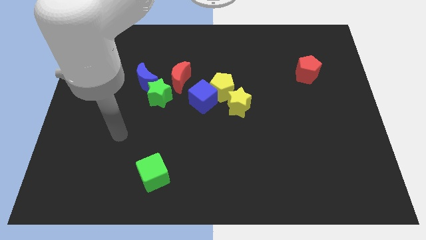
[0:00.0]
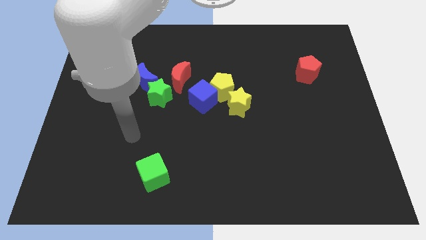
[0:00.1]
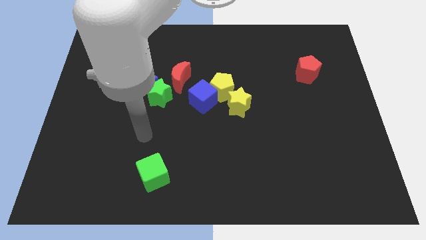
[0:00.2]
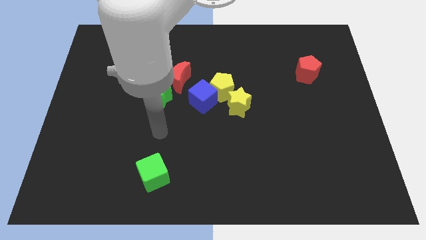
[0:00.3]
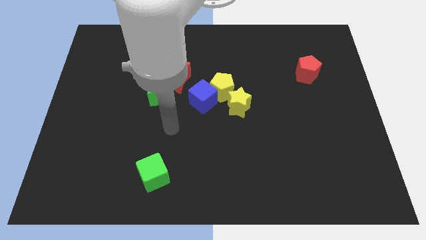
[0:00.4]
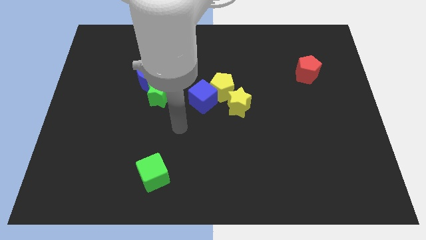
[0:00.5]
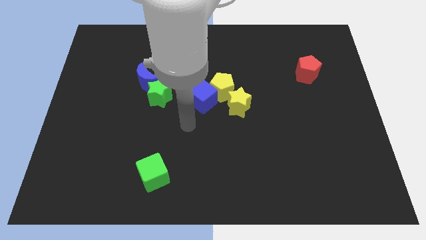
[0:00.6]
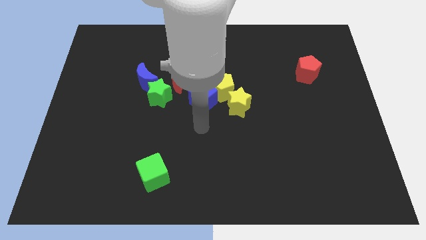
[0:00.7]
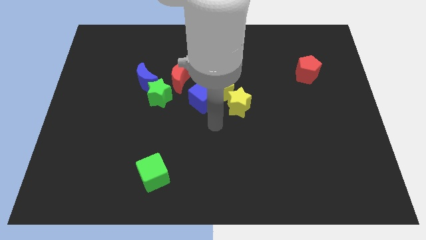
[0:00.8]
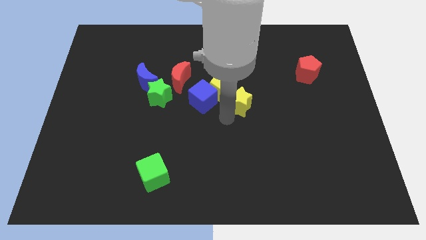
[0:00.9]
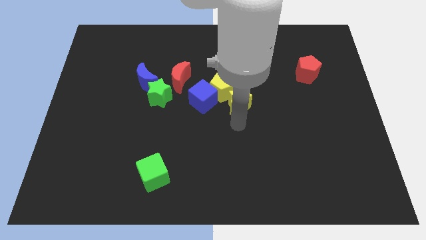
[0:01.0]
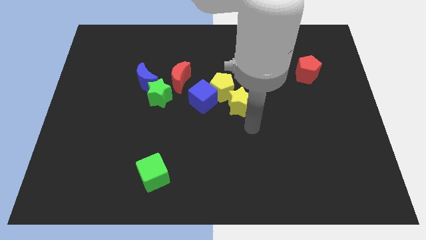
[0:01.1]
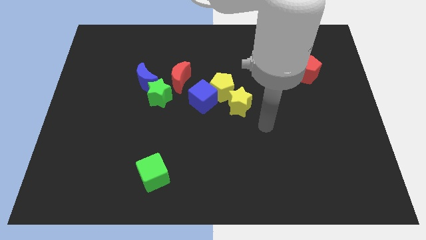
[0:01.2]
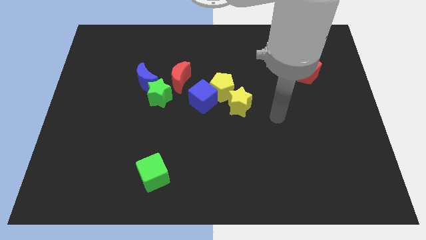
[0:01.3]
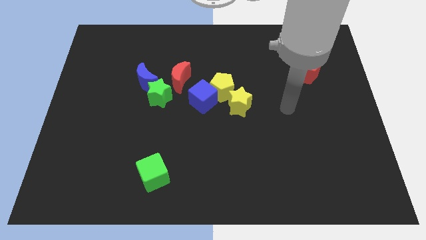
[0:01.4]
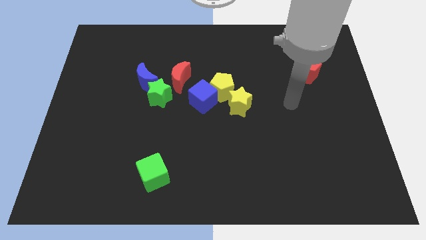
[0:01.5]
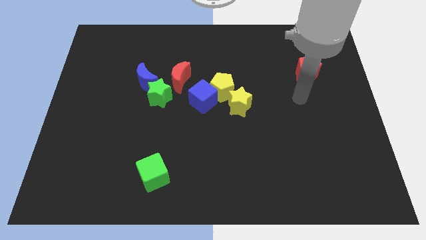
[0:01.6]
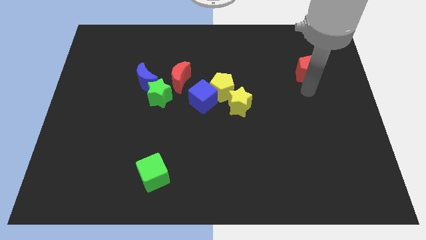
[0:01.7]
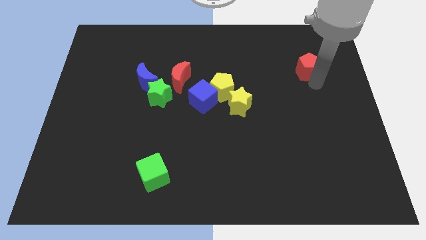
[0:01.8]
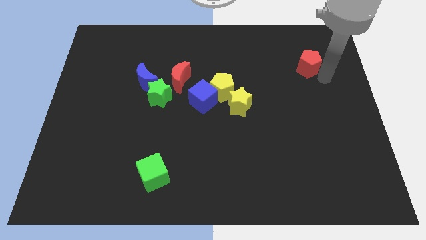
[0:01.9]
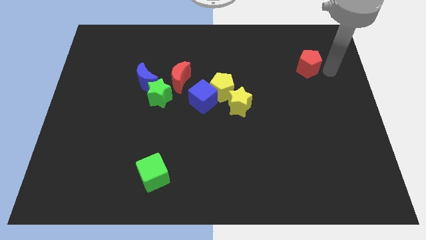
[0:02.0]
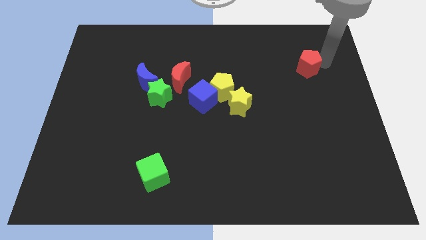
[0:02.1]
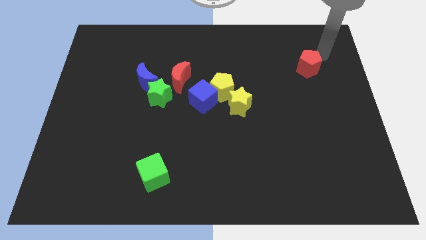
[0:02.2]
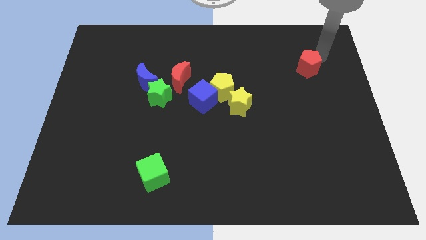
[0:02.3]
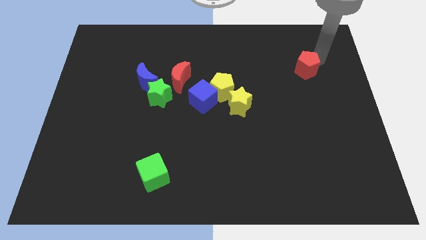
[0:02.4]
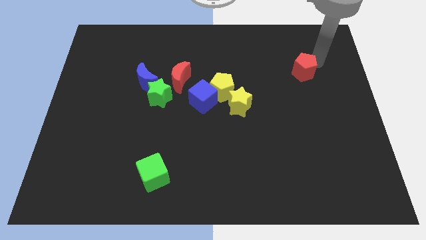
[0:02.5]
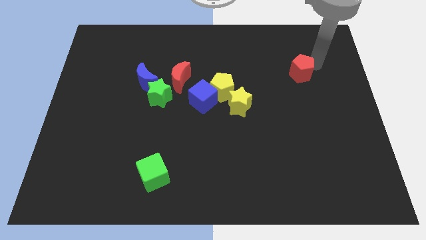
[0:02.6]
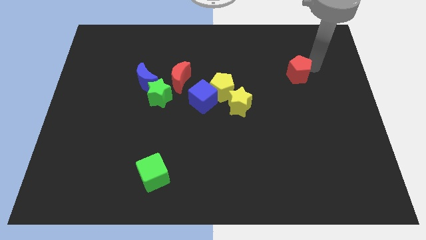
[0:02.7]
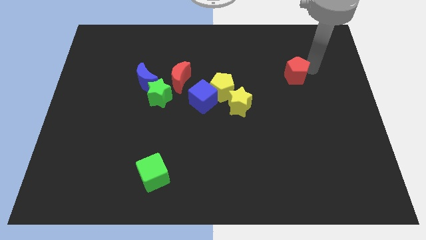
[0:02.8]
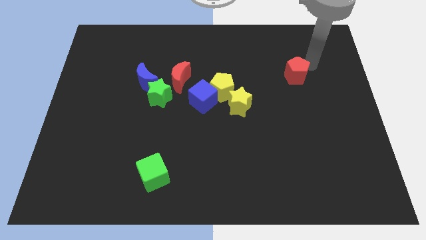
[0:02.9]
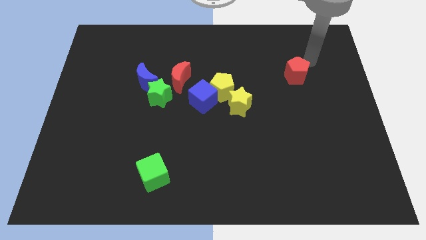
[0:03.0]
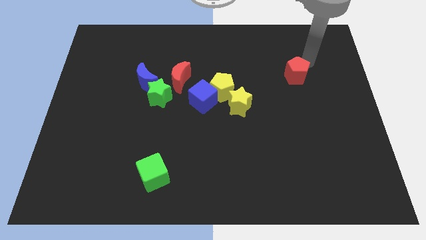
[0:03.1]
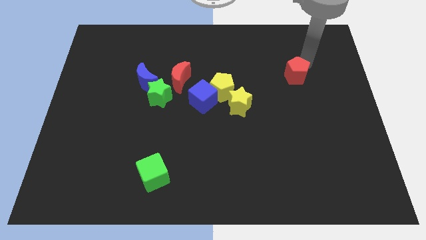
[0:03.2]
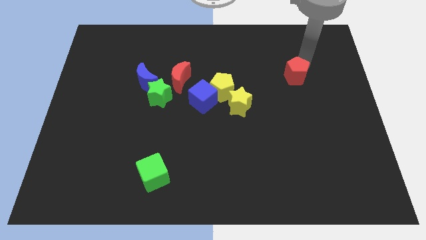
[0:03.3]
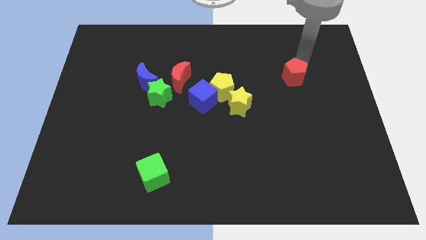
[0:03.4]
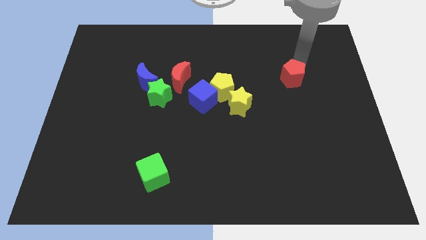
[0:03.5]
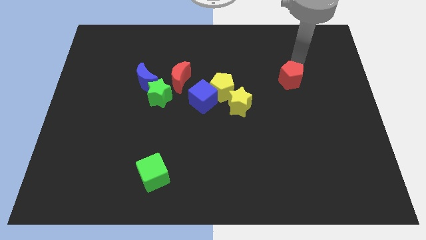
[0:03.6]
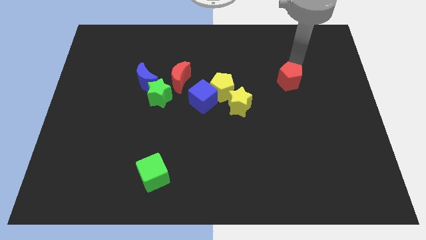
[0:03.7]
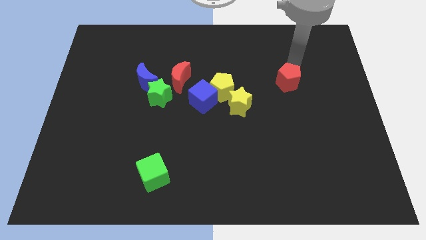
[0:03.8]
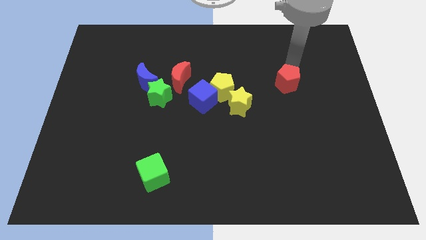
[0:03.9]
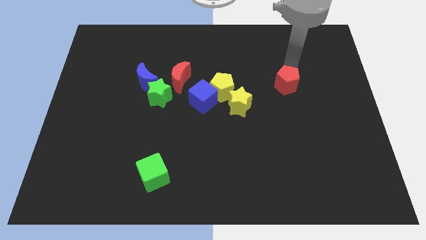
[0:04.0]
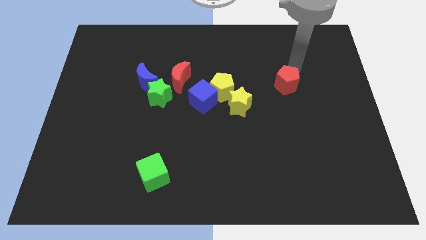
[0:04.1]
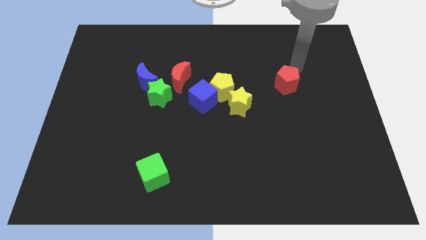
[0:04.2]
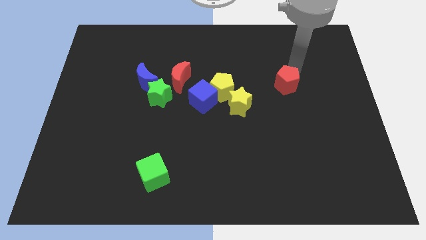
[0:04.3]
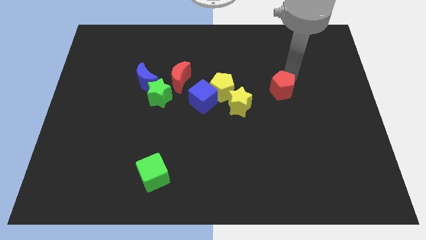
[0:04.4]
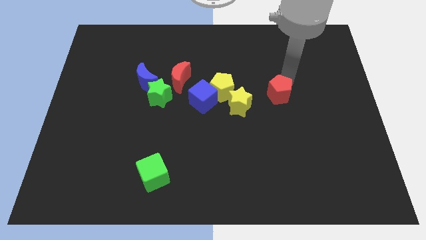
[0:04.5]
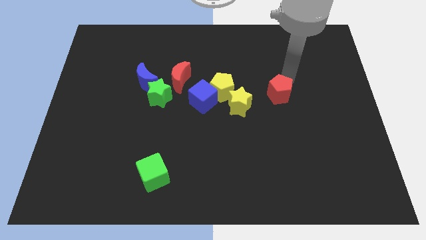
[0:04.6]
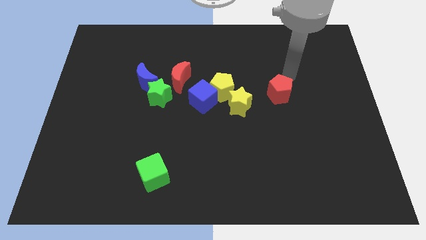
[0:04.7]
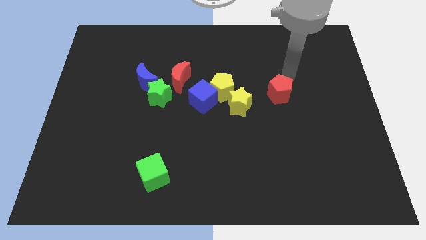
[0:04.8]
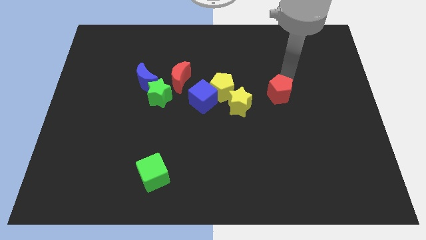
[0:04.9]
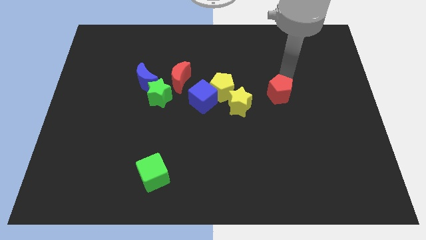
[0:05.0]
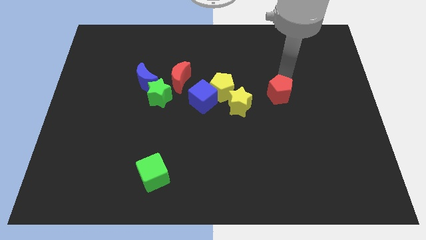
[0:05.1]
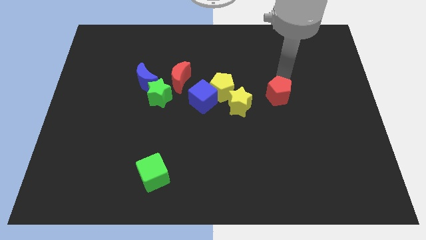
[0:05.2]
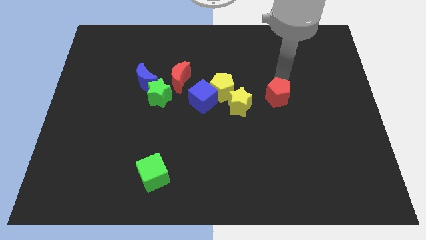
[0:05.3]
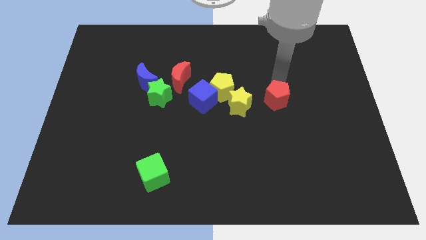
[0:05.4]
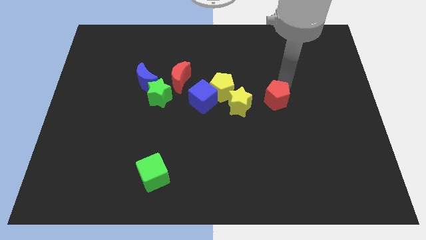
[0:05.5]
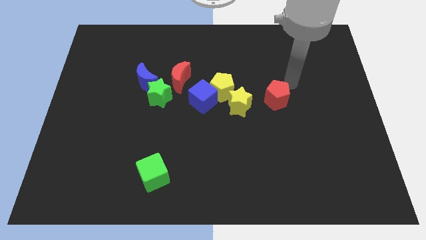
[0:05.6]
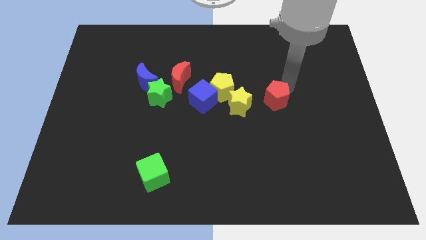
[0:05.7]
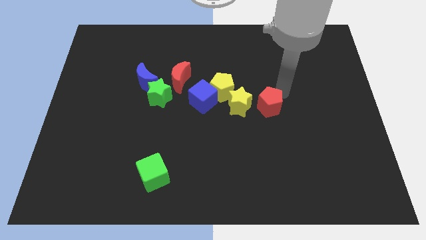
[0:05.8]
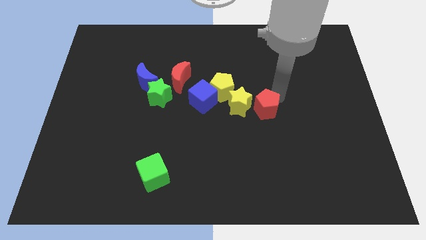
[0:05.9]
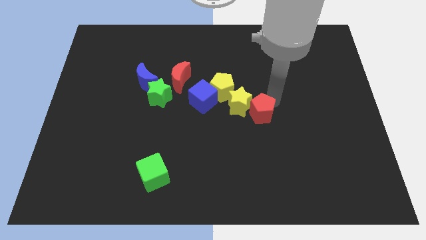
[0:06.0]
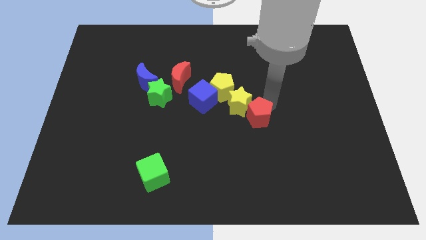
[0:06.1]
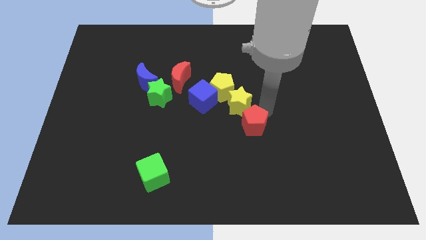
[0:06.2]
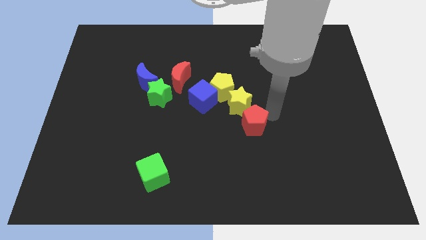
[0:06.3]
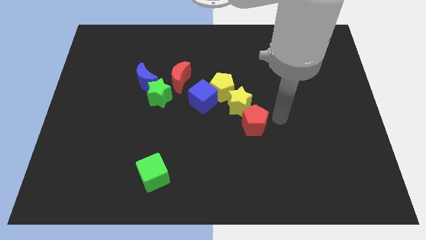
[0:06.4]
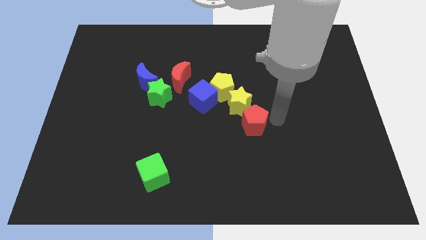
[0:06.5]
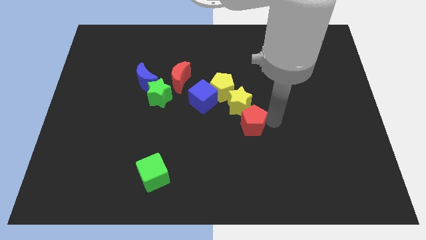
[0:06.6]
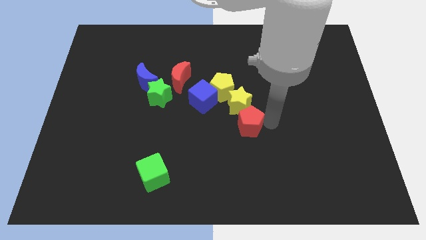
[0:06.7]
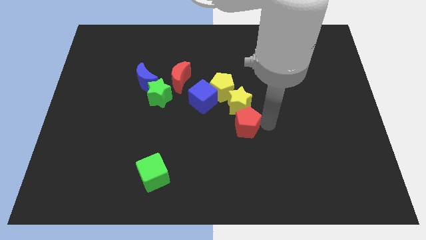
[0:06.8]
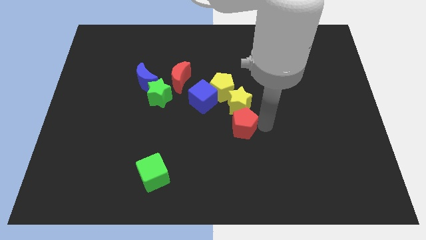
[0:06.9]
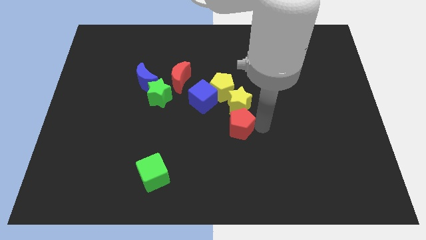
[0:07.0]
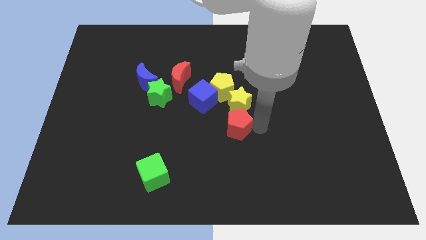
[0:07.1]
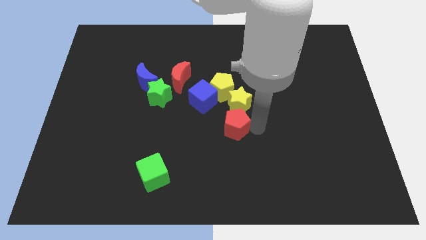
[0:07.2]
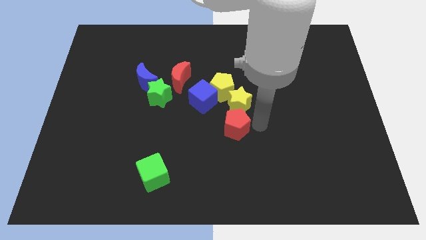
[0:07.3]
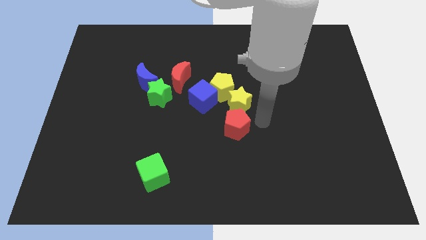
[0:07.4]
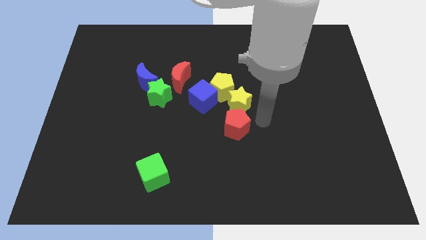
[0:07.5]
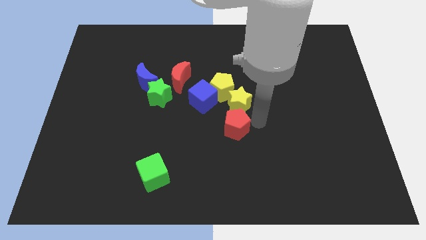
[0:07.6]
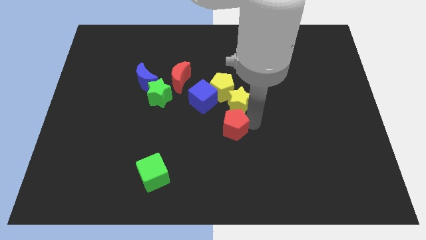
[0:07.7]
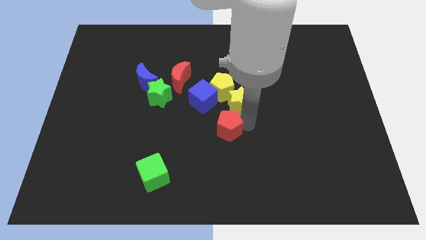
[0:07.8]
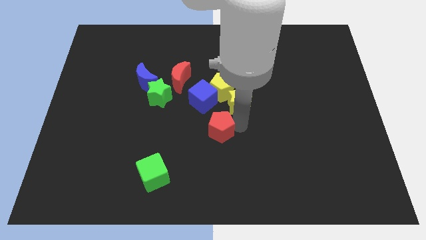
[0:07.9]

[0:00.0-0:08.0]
move the red pentagon to the bottom of the blue cube
